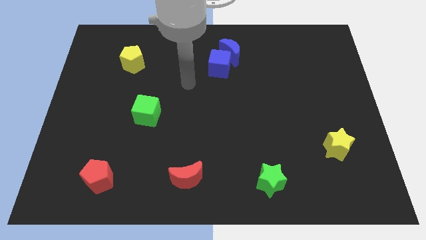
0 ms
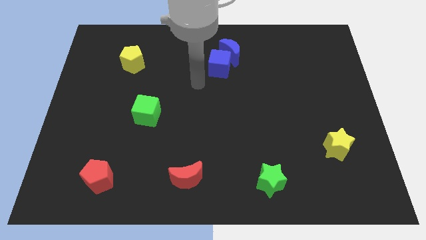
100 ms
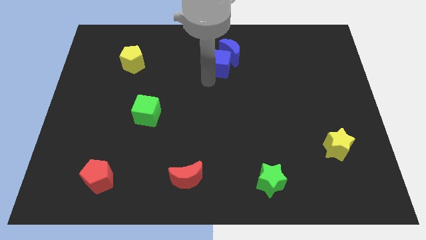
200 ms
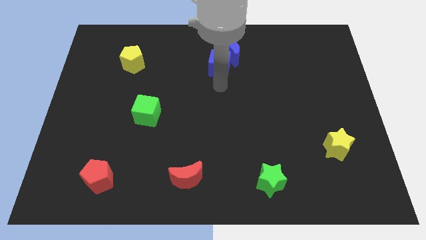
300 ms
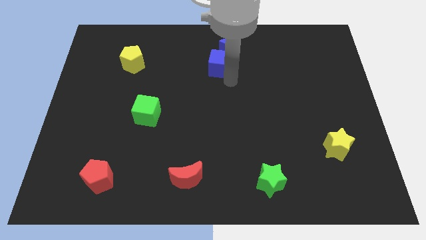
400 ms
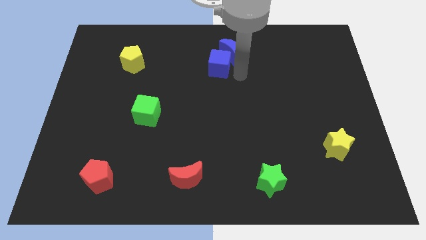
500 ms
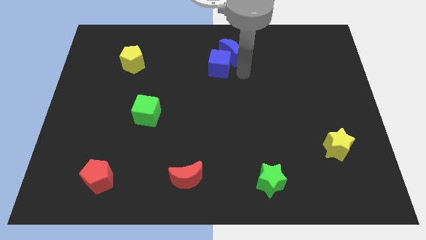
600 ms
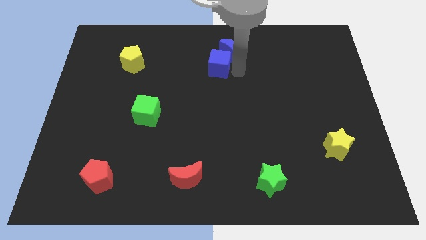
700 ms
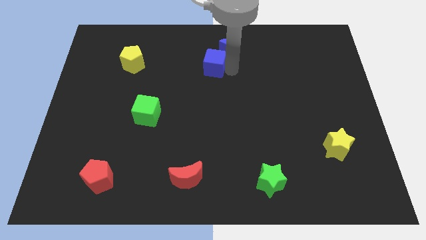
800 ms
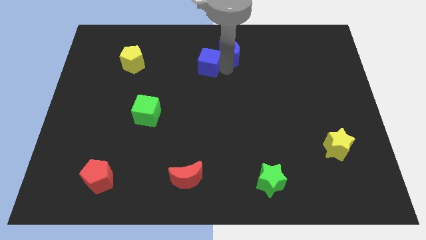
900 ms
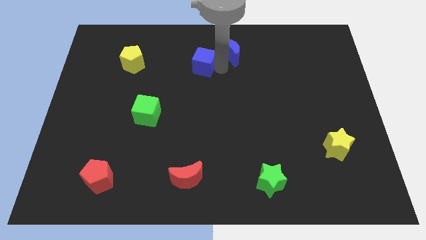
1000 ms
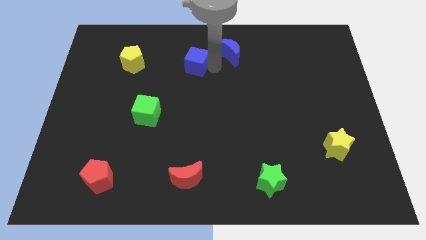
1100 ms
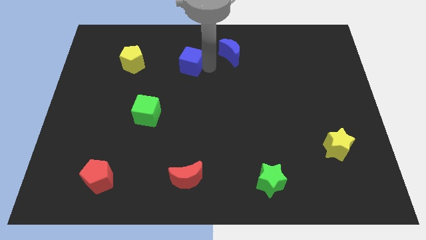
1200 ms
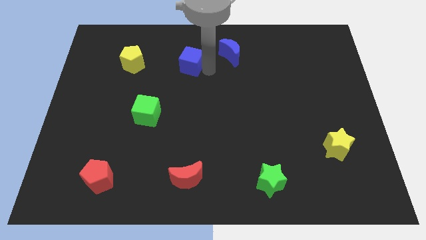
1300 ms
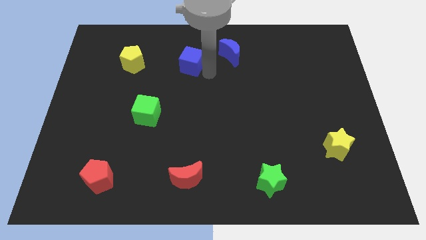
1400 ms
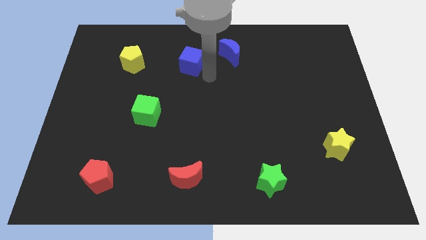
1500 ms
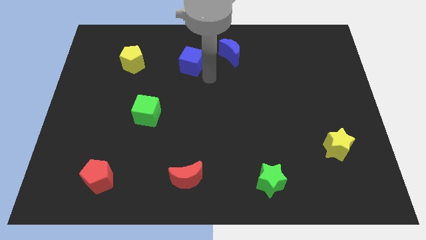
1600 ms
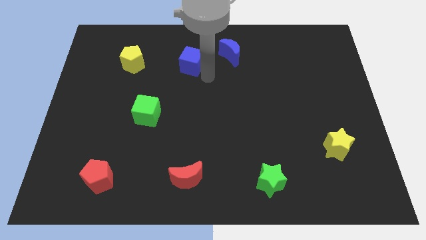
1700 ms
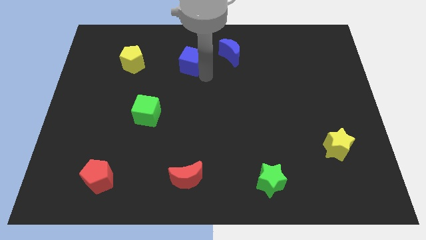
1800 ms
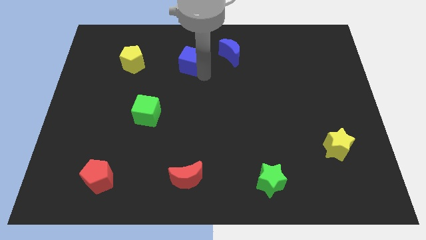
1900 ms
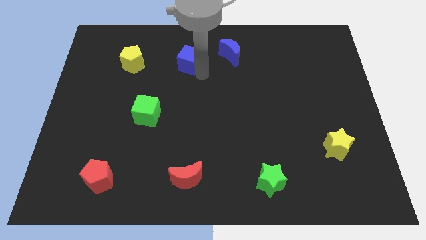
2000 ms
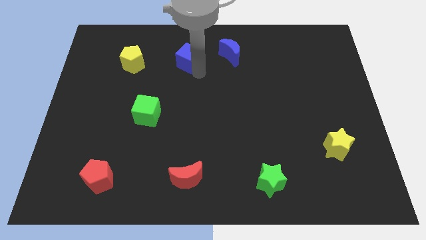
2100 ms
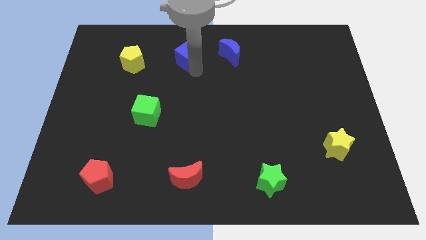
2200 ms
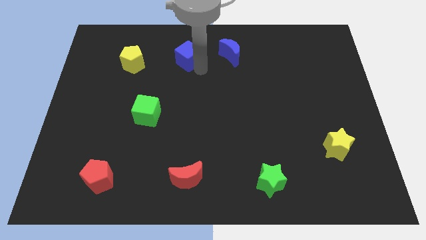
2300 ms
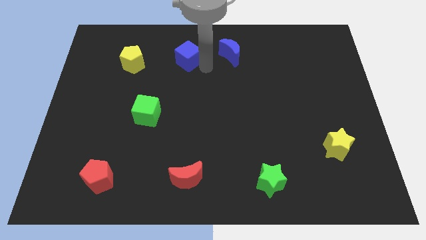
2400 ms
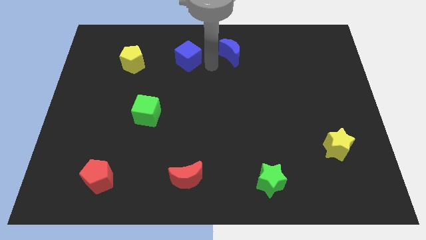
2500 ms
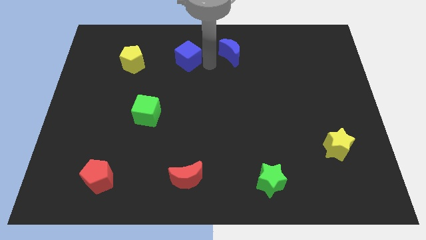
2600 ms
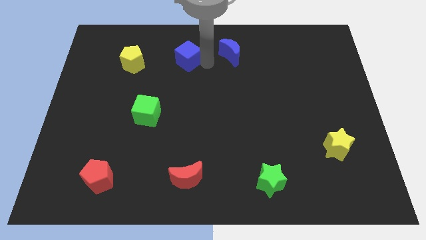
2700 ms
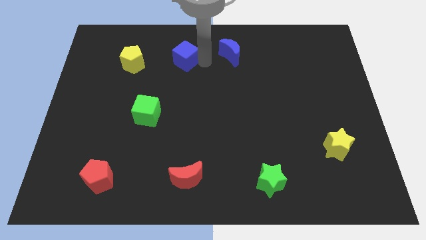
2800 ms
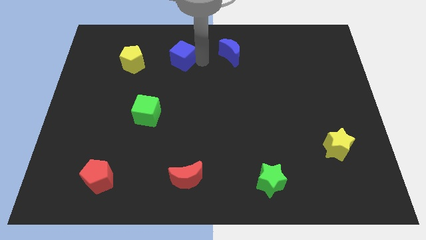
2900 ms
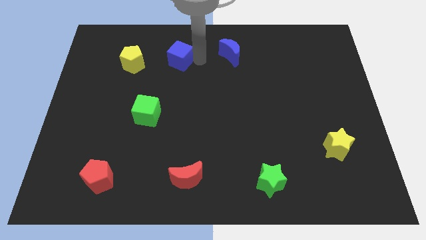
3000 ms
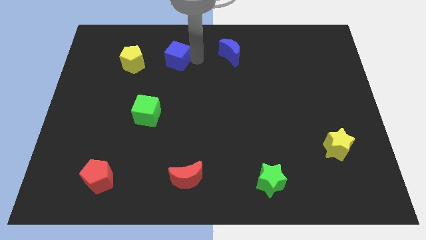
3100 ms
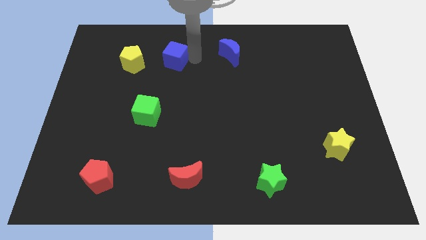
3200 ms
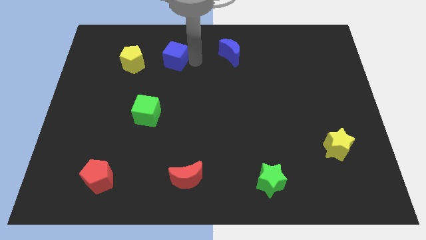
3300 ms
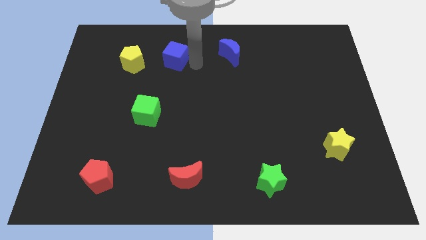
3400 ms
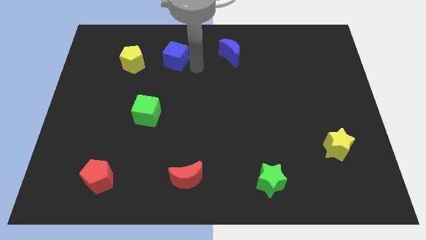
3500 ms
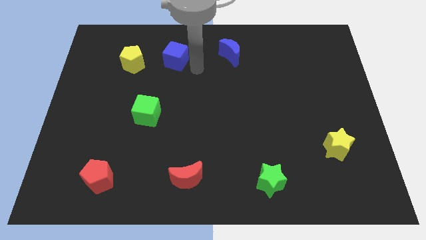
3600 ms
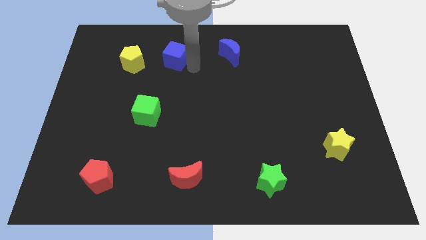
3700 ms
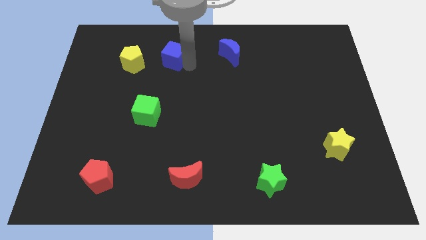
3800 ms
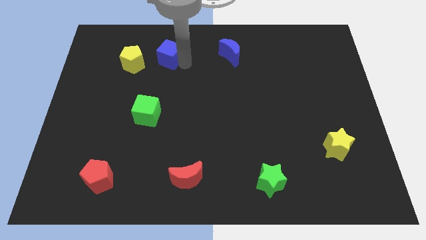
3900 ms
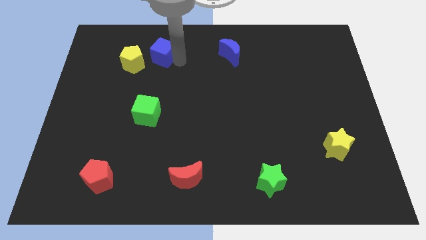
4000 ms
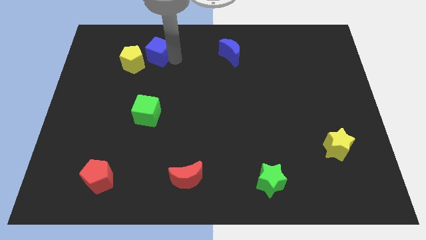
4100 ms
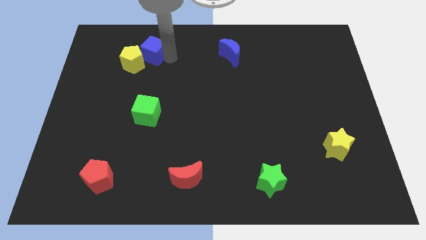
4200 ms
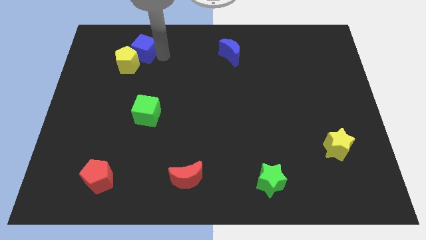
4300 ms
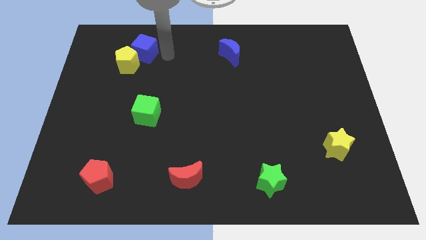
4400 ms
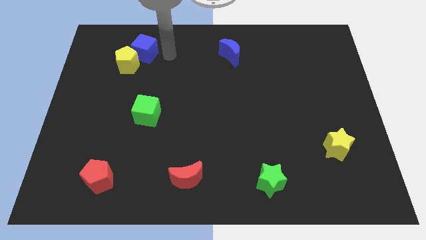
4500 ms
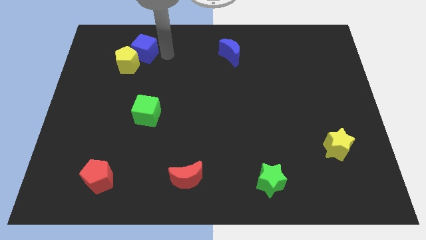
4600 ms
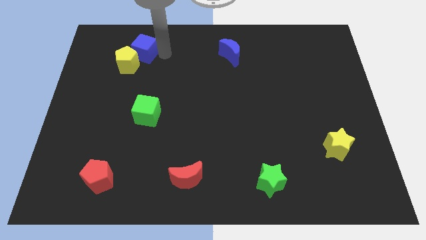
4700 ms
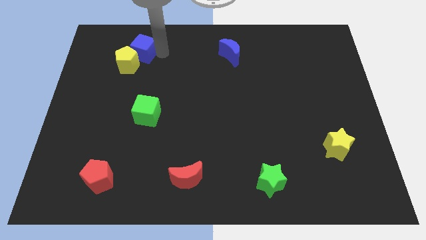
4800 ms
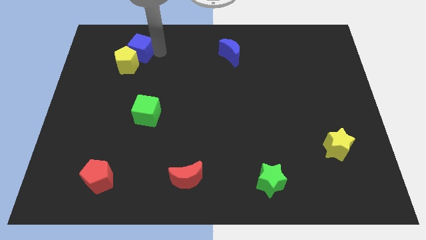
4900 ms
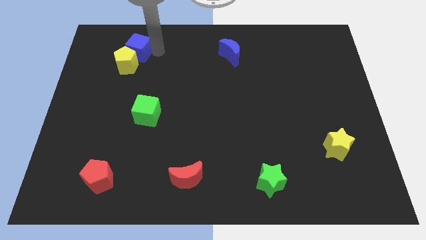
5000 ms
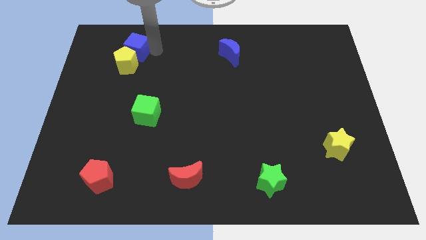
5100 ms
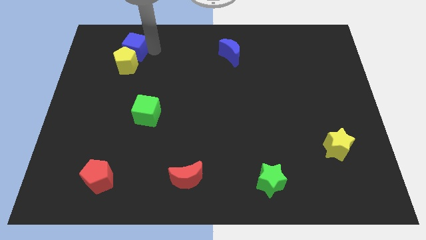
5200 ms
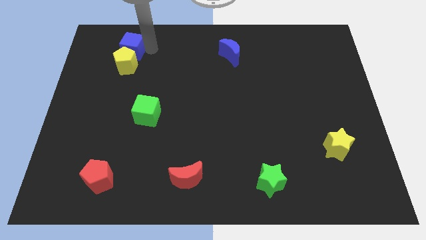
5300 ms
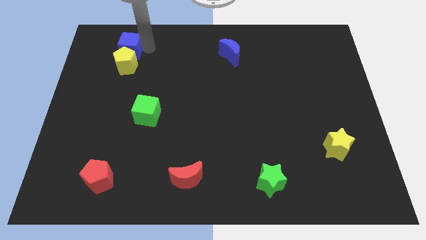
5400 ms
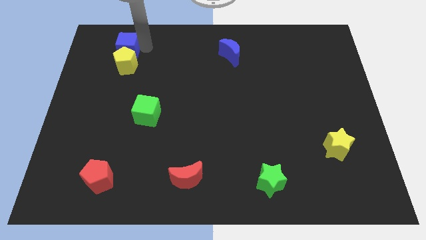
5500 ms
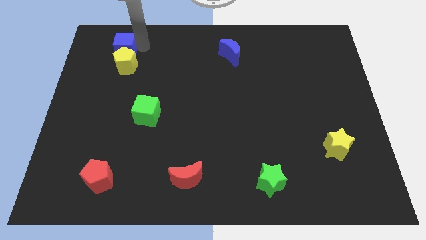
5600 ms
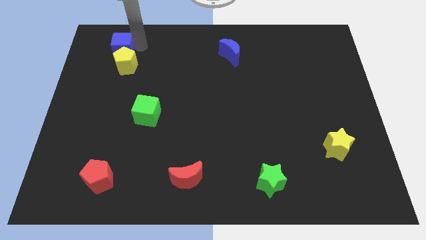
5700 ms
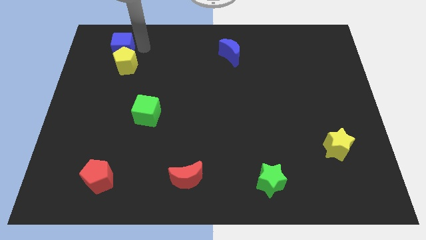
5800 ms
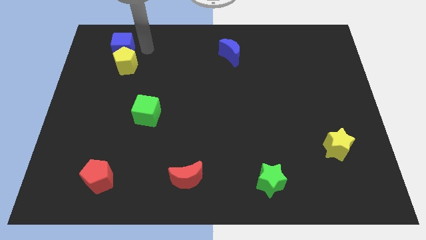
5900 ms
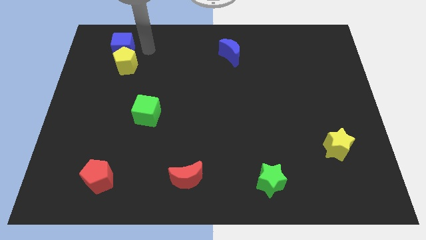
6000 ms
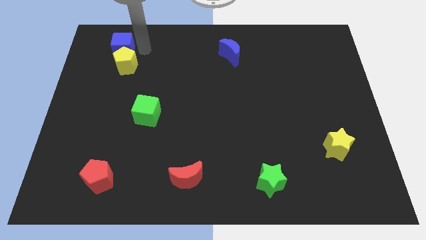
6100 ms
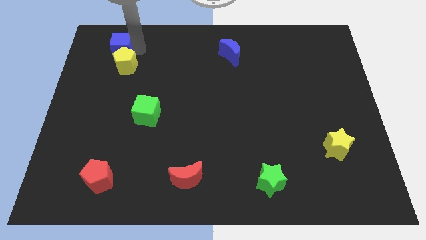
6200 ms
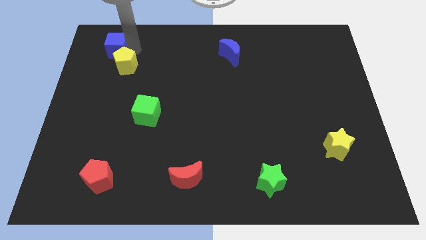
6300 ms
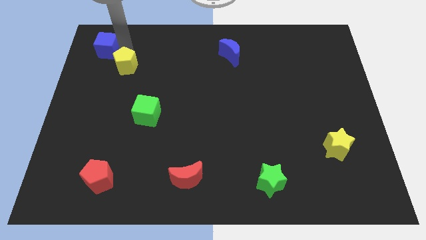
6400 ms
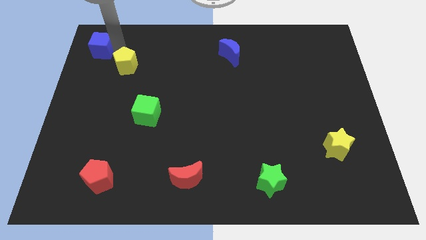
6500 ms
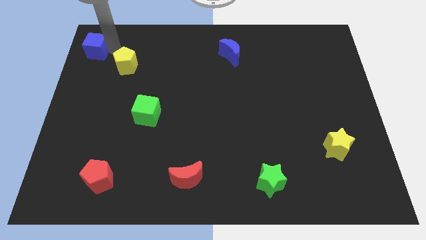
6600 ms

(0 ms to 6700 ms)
move the blue cube to the upper left corner

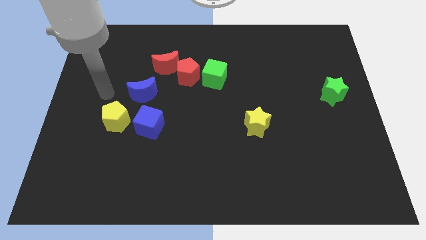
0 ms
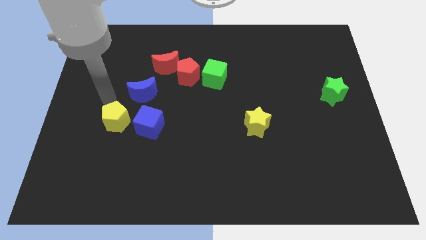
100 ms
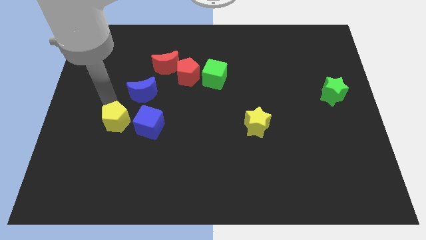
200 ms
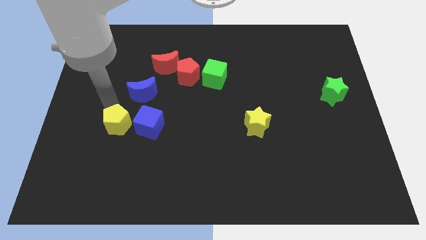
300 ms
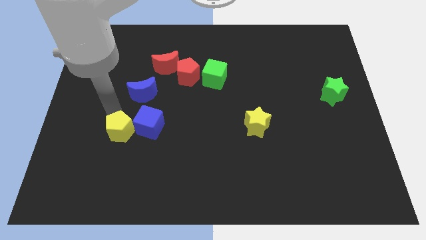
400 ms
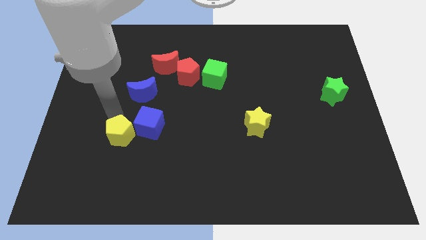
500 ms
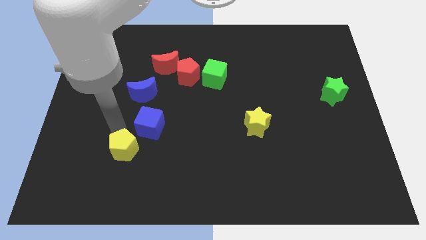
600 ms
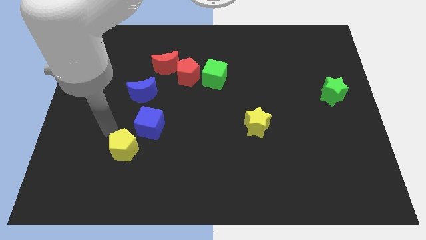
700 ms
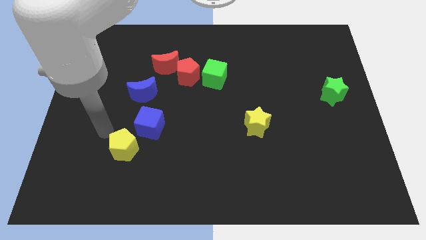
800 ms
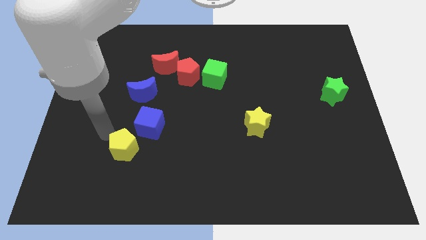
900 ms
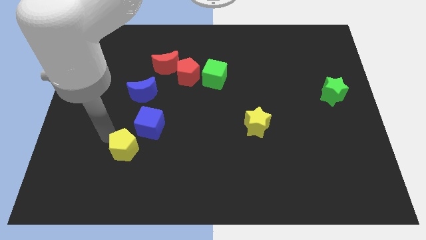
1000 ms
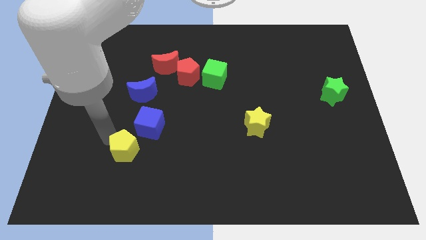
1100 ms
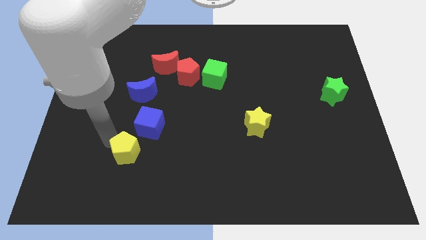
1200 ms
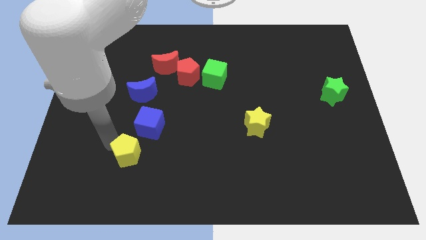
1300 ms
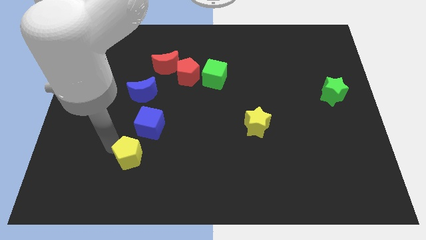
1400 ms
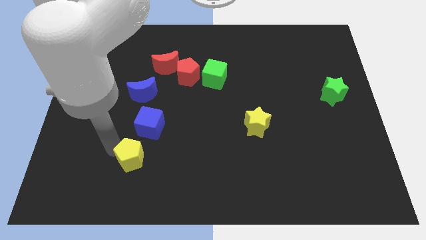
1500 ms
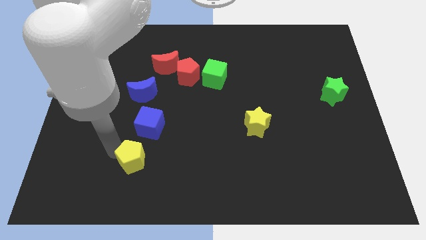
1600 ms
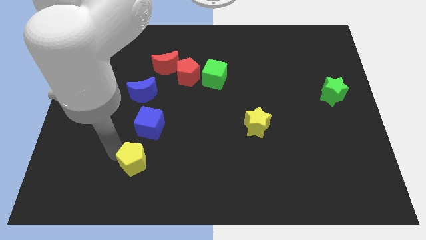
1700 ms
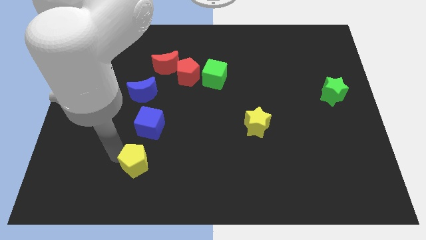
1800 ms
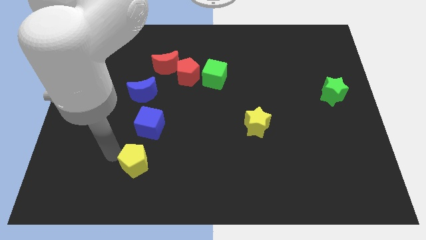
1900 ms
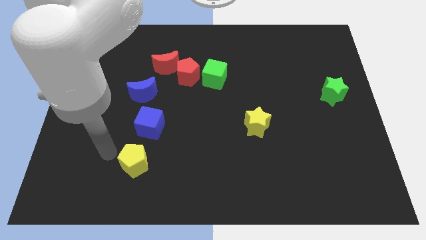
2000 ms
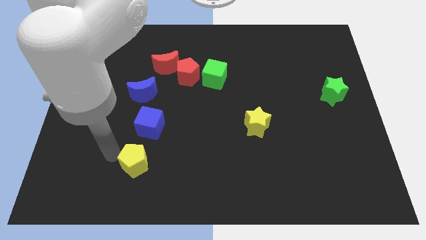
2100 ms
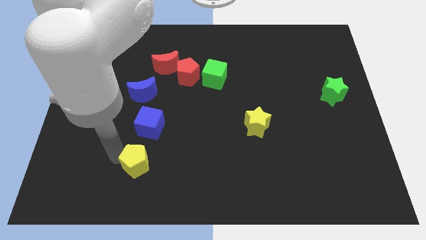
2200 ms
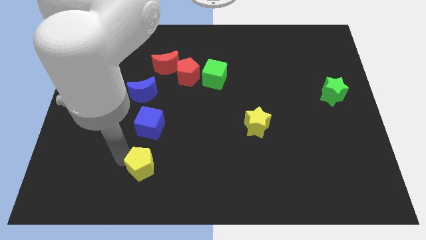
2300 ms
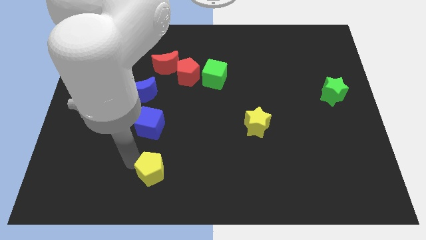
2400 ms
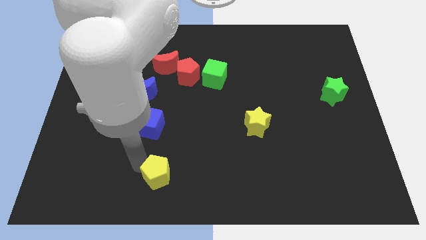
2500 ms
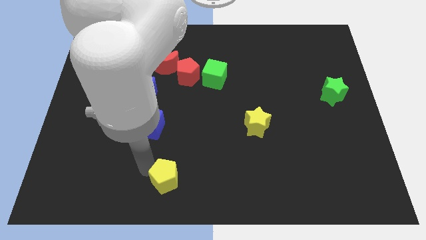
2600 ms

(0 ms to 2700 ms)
slide the yellow pentagon to the bottom
